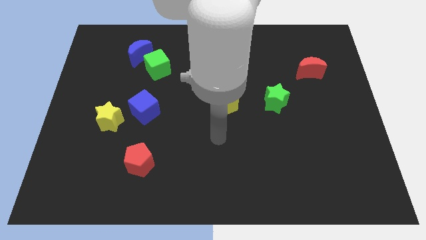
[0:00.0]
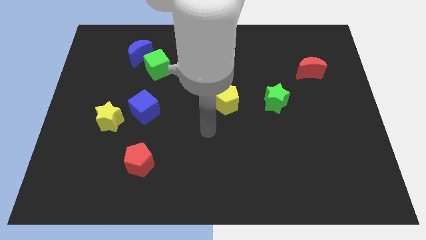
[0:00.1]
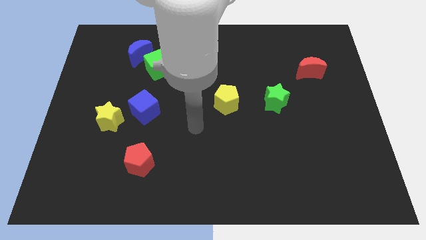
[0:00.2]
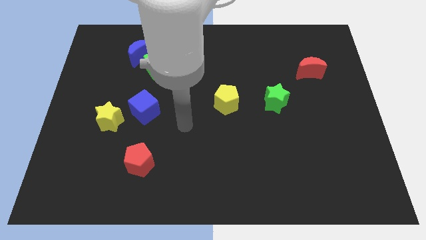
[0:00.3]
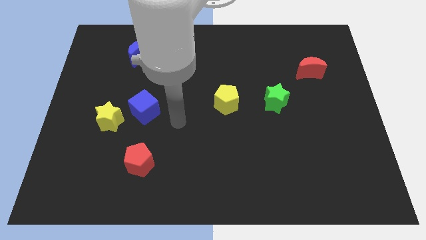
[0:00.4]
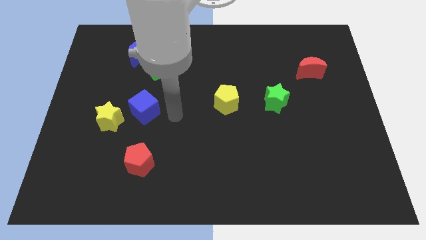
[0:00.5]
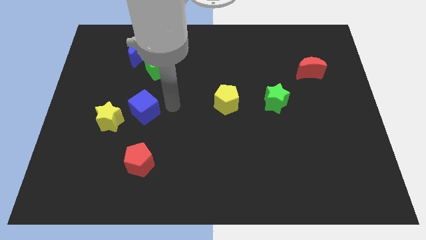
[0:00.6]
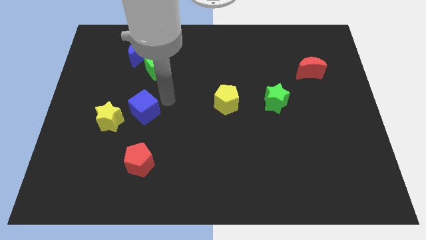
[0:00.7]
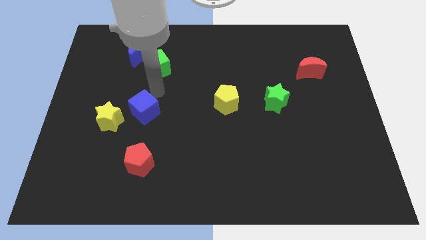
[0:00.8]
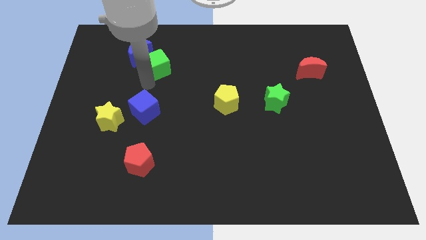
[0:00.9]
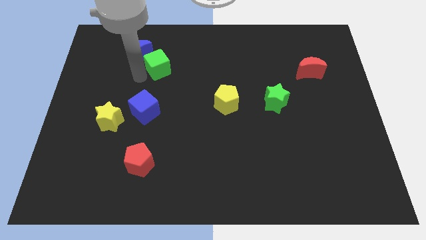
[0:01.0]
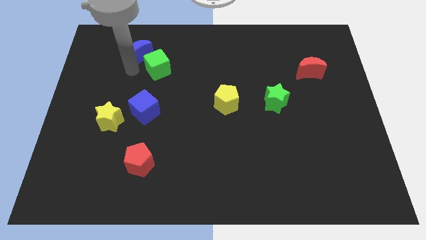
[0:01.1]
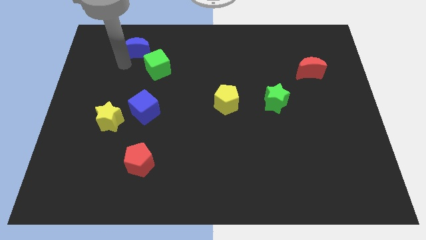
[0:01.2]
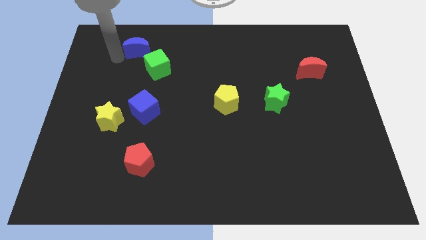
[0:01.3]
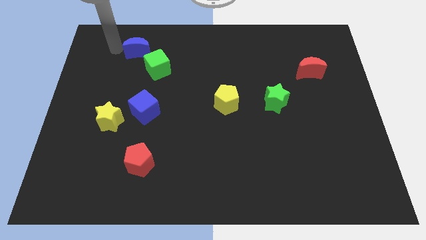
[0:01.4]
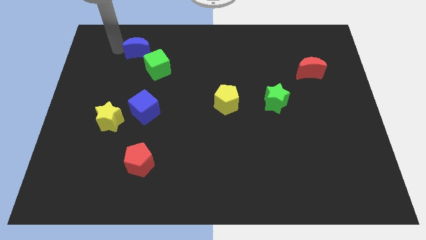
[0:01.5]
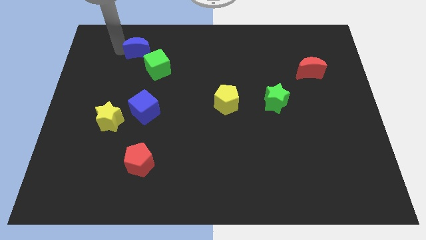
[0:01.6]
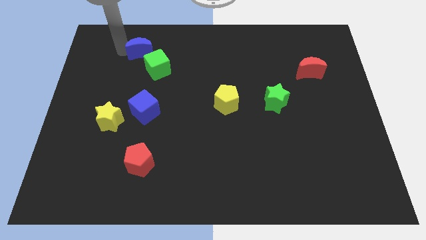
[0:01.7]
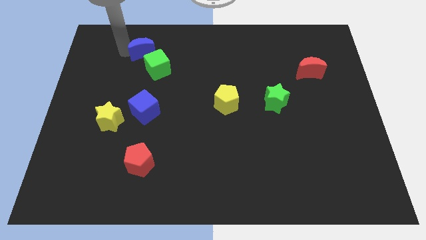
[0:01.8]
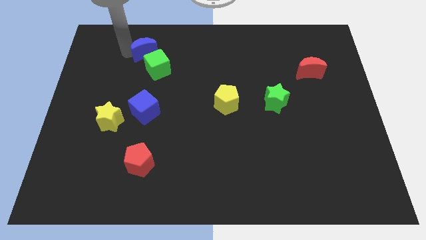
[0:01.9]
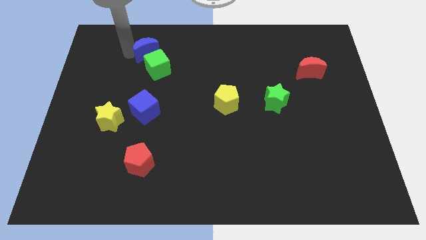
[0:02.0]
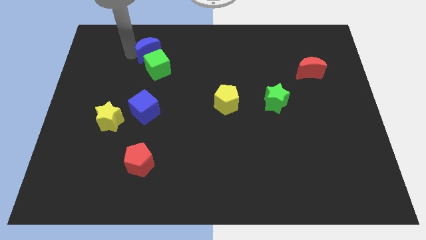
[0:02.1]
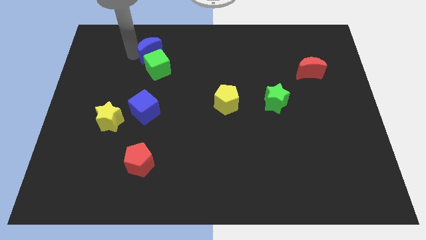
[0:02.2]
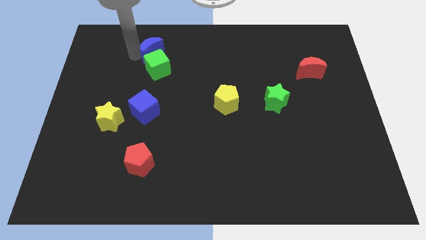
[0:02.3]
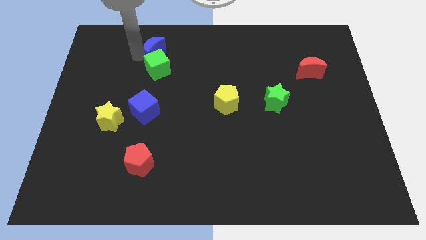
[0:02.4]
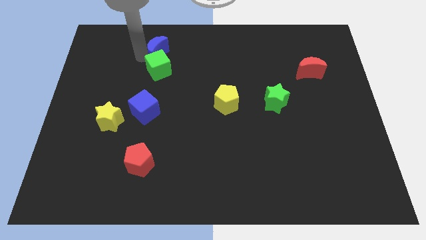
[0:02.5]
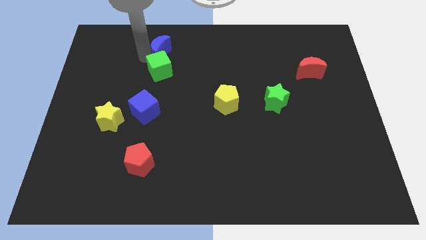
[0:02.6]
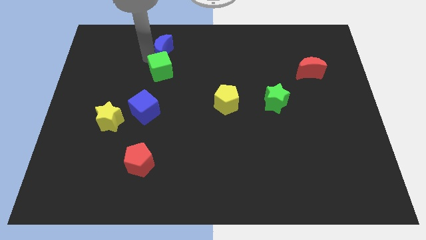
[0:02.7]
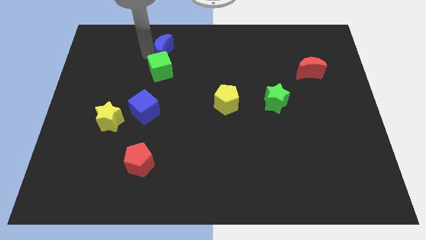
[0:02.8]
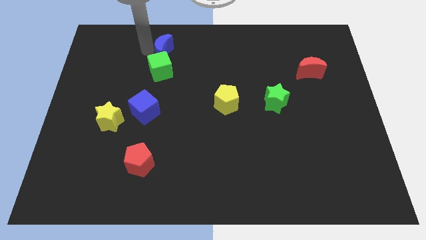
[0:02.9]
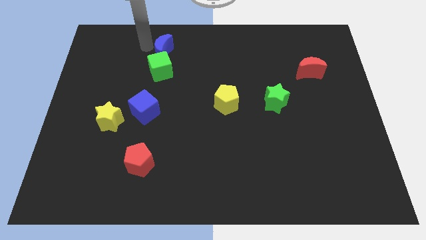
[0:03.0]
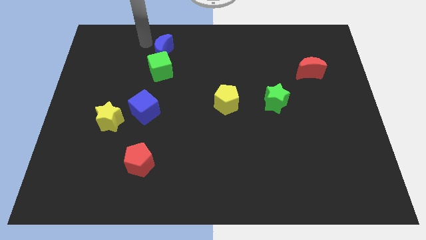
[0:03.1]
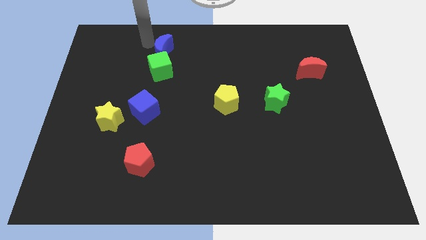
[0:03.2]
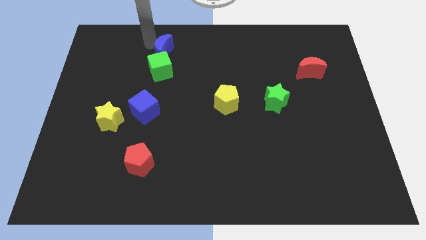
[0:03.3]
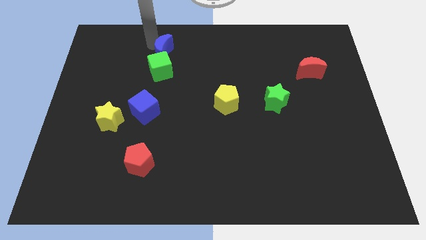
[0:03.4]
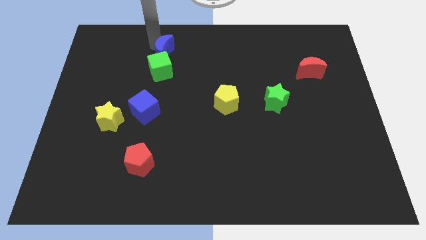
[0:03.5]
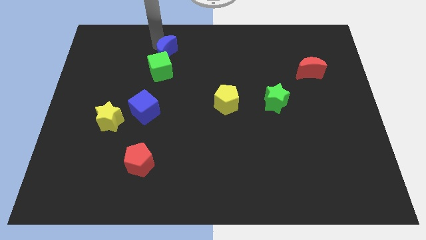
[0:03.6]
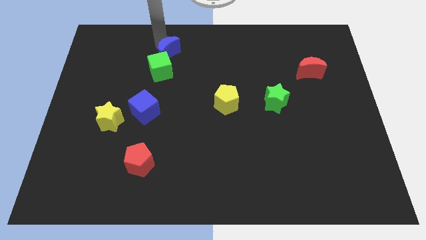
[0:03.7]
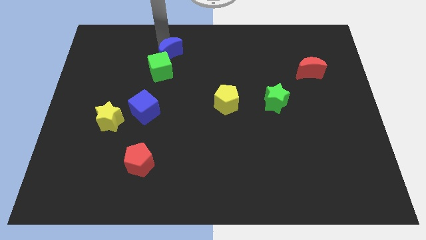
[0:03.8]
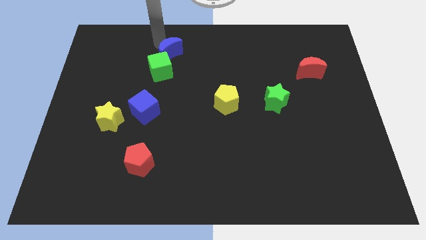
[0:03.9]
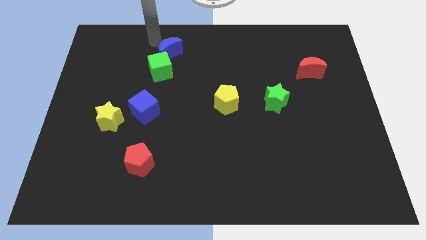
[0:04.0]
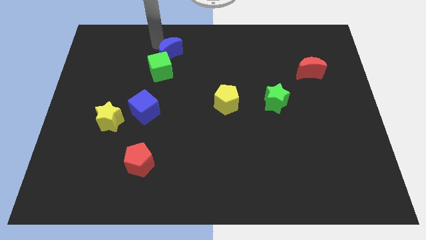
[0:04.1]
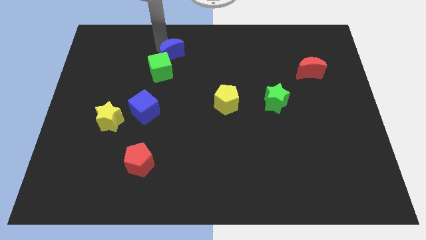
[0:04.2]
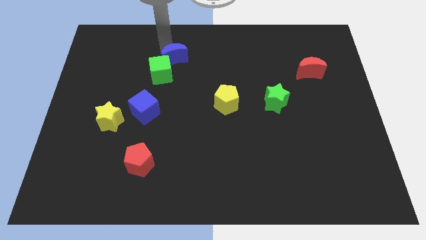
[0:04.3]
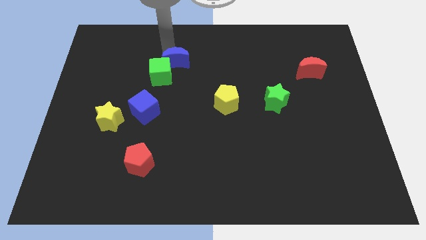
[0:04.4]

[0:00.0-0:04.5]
slide the blue moon a little diagonally down and right

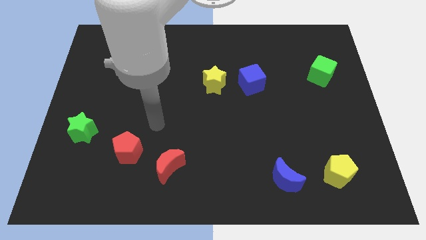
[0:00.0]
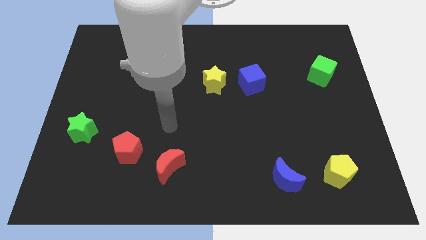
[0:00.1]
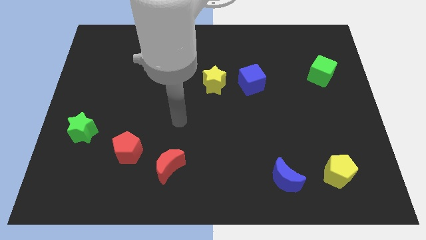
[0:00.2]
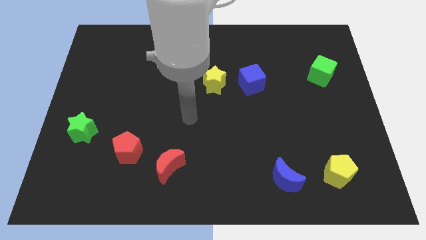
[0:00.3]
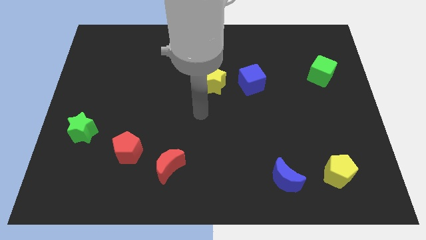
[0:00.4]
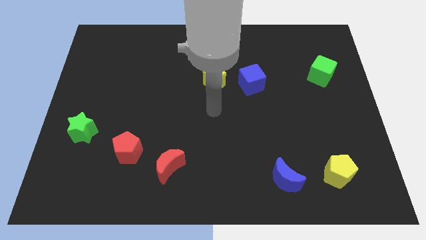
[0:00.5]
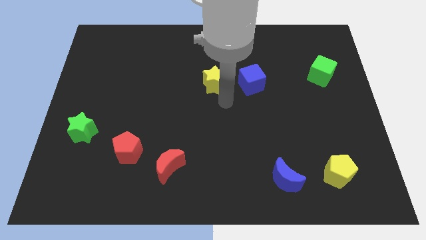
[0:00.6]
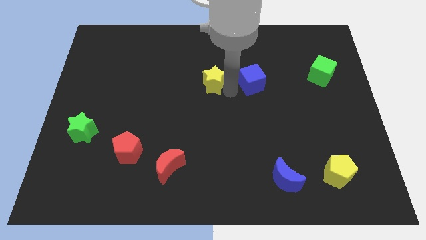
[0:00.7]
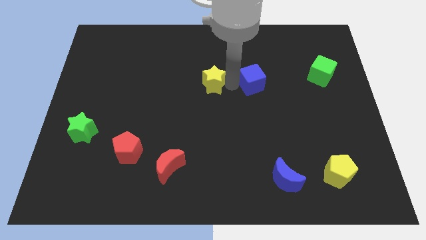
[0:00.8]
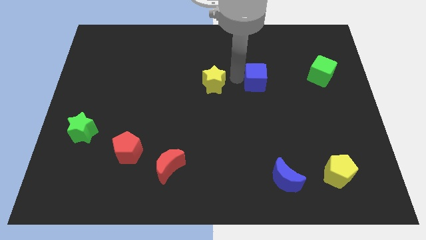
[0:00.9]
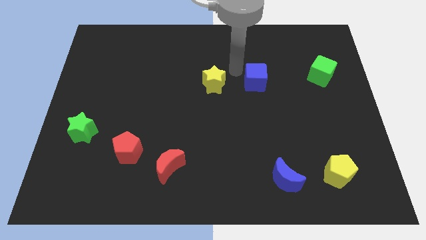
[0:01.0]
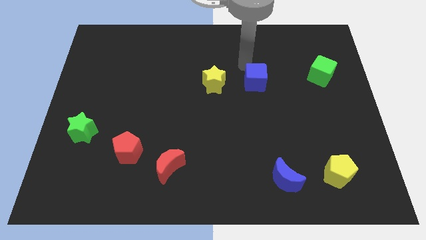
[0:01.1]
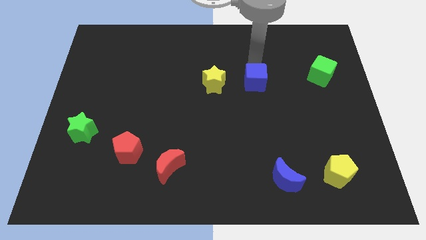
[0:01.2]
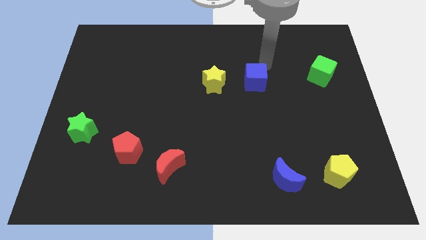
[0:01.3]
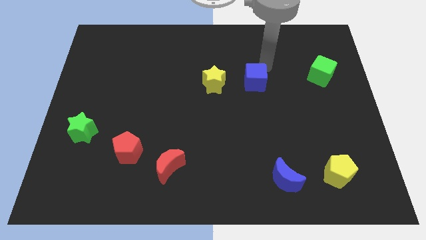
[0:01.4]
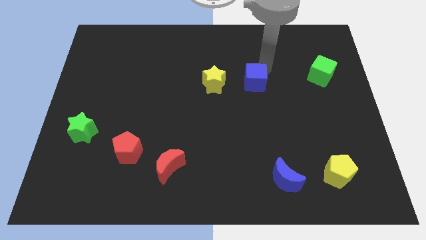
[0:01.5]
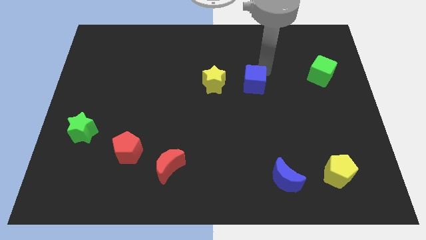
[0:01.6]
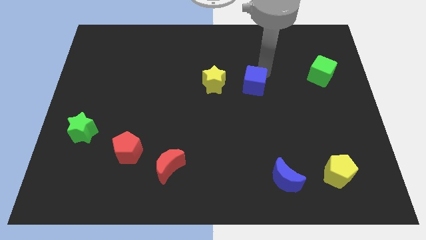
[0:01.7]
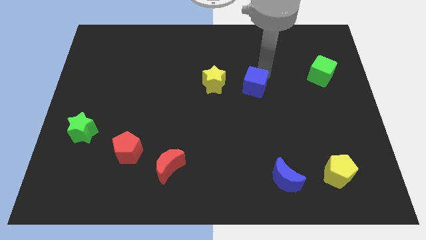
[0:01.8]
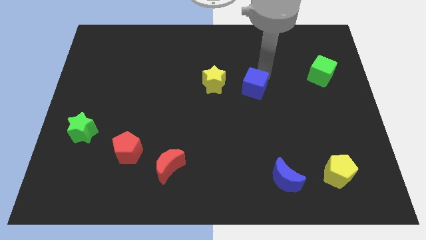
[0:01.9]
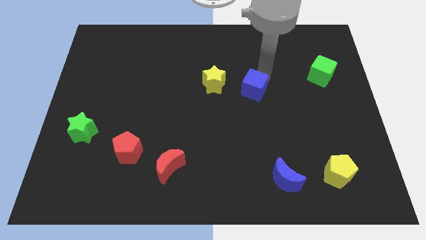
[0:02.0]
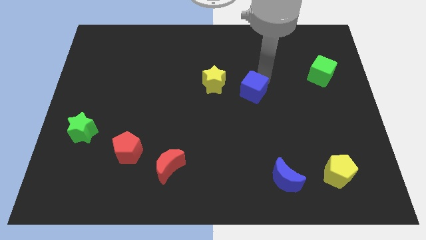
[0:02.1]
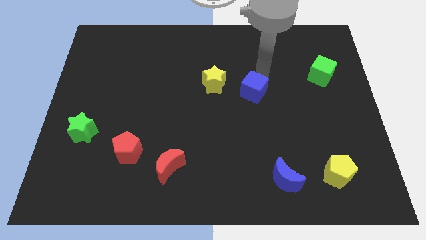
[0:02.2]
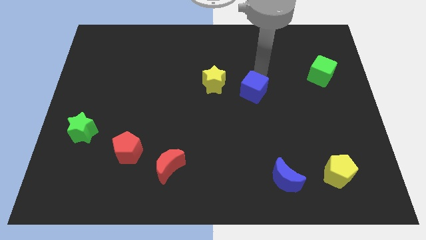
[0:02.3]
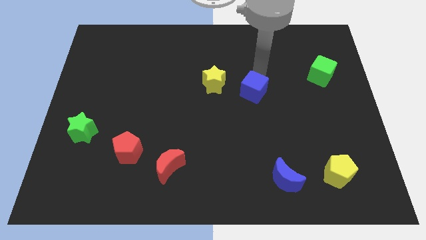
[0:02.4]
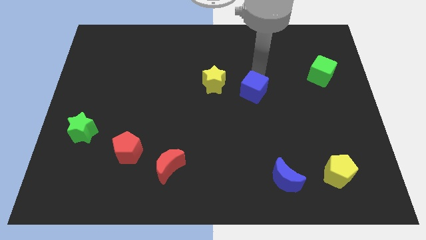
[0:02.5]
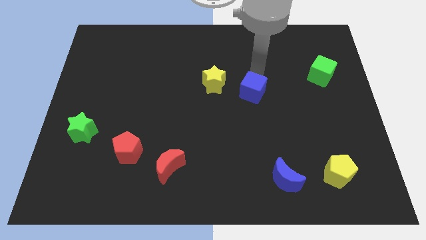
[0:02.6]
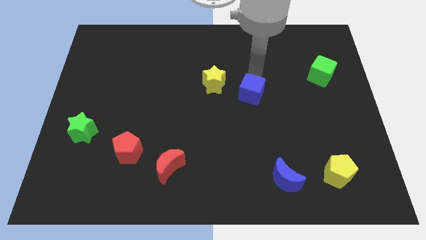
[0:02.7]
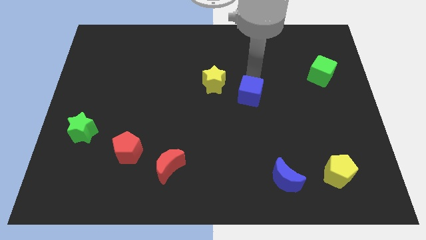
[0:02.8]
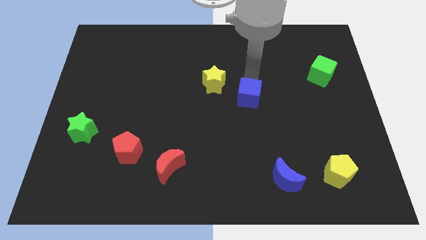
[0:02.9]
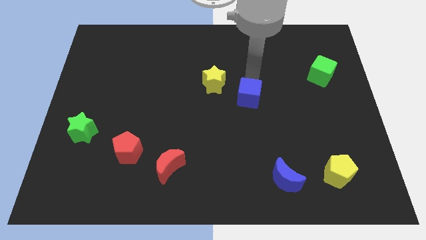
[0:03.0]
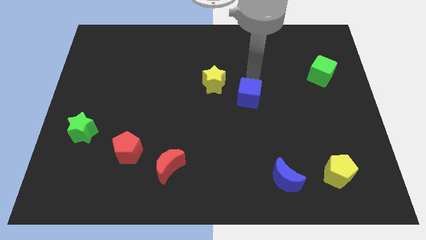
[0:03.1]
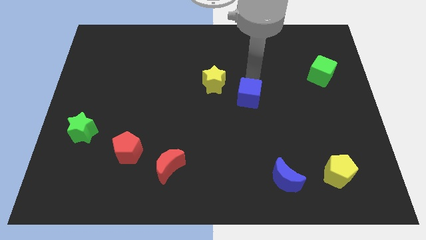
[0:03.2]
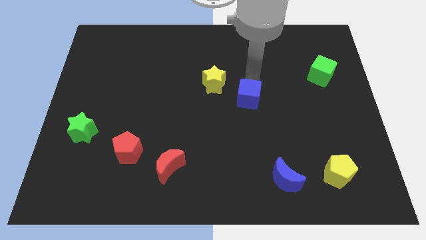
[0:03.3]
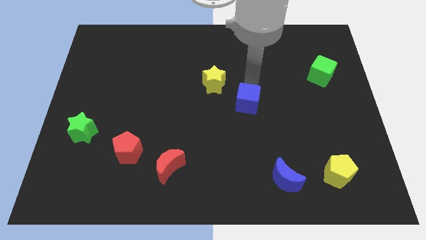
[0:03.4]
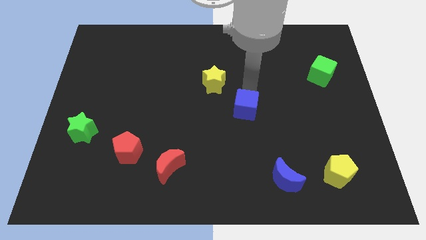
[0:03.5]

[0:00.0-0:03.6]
move the blue cube slightly downwards
